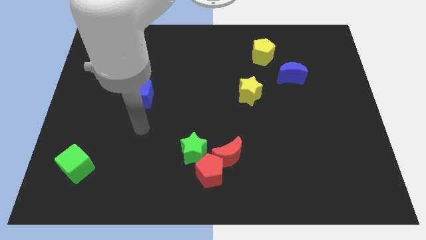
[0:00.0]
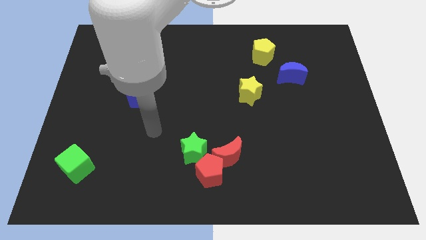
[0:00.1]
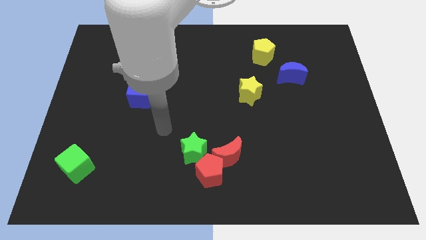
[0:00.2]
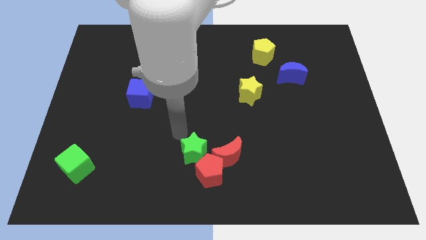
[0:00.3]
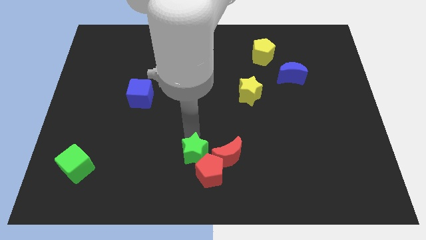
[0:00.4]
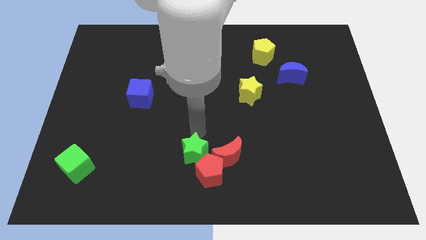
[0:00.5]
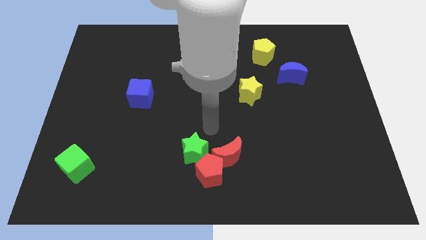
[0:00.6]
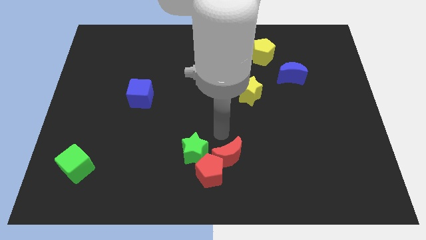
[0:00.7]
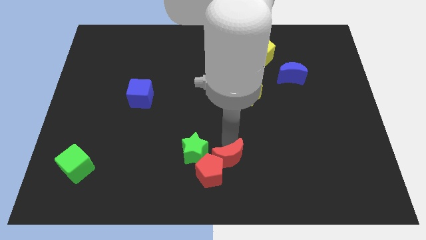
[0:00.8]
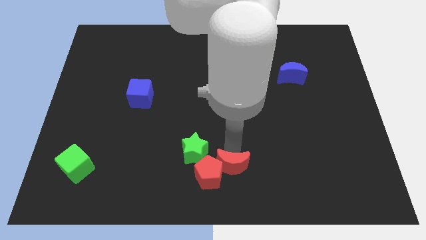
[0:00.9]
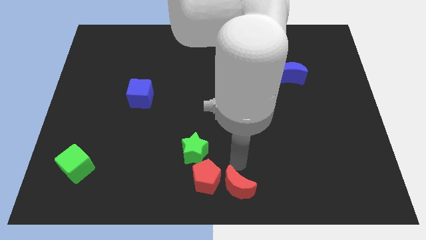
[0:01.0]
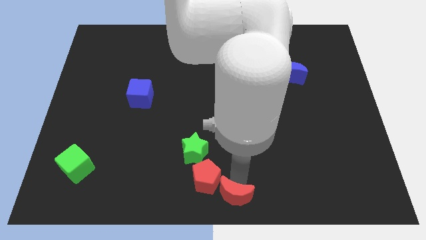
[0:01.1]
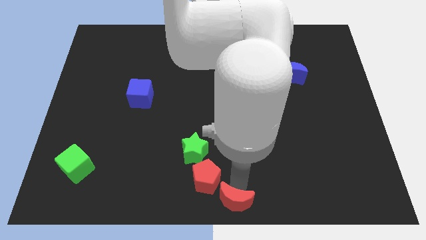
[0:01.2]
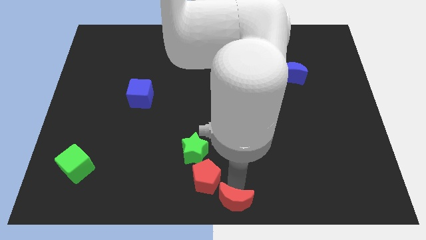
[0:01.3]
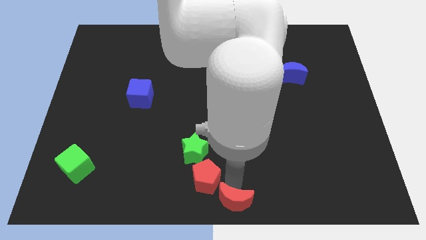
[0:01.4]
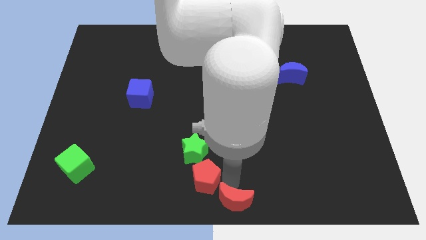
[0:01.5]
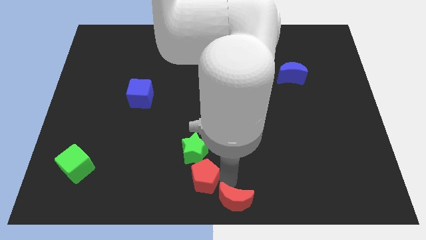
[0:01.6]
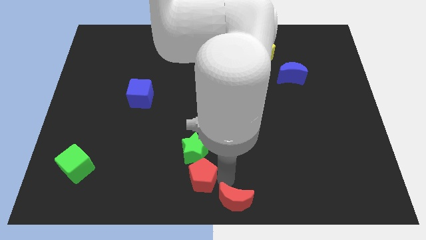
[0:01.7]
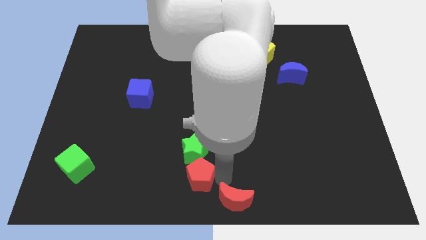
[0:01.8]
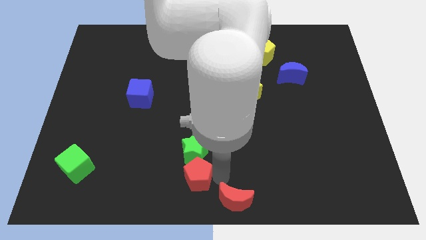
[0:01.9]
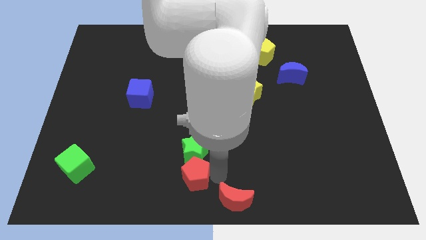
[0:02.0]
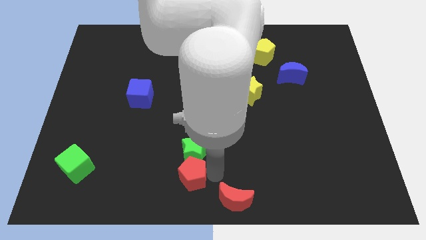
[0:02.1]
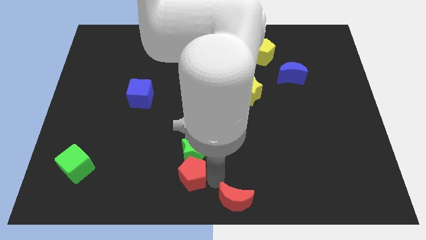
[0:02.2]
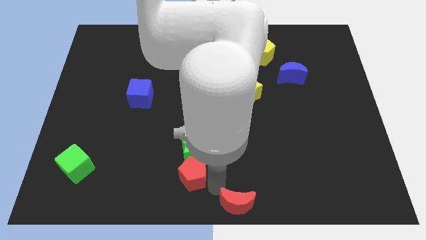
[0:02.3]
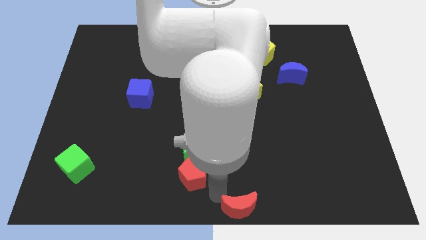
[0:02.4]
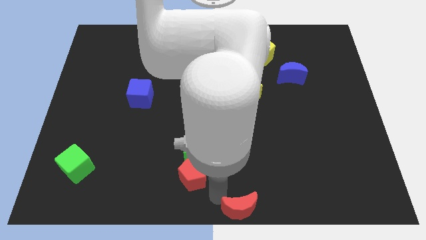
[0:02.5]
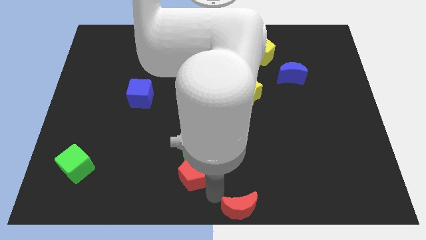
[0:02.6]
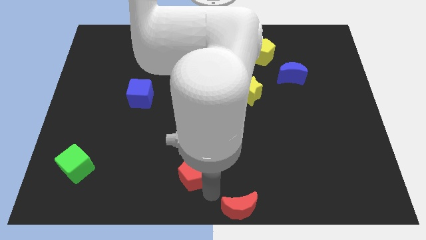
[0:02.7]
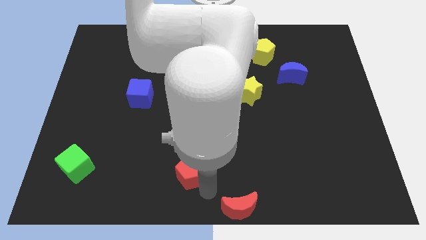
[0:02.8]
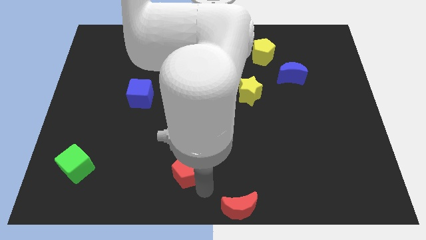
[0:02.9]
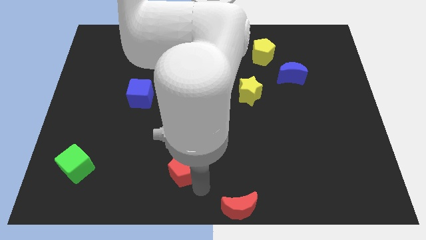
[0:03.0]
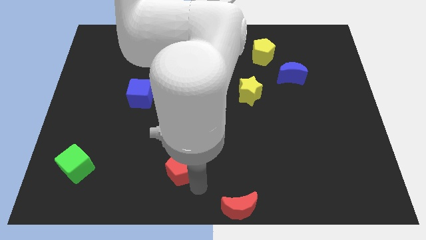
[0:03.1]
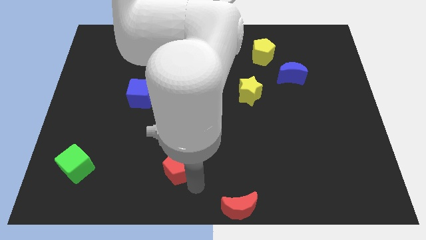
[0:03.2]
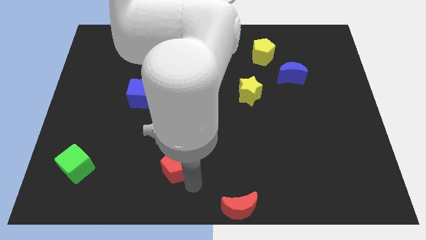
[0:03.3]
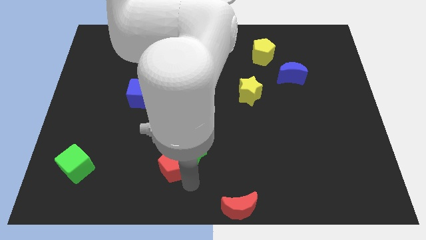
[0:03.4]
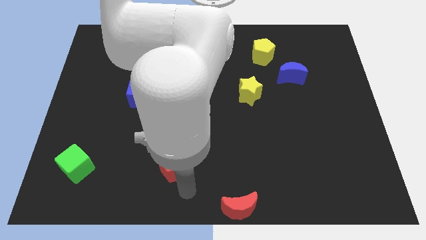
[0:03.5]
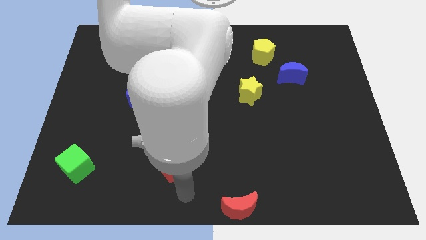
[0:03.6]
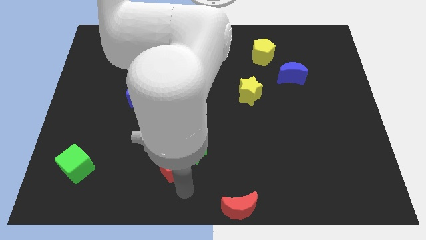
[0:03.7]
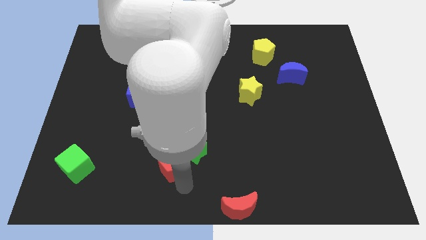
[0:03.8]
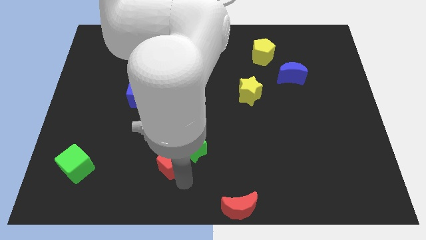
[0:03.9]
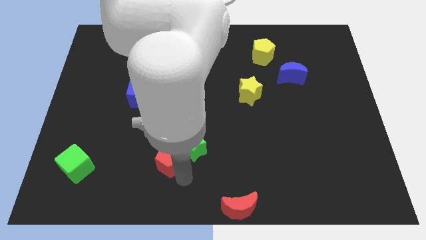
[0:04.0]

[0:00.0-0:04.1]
slide the red pentagon diagonally upwards and to the left somewhat

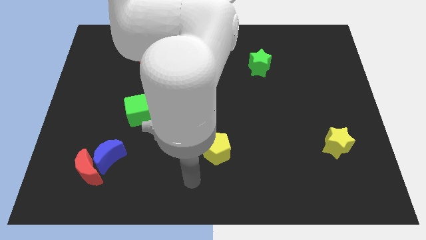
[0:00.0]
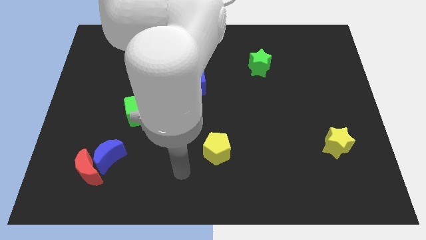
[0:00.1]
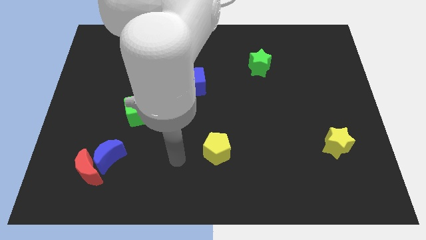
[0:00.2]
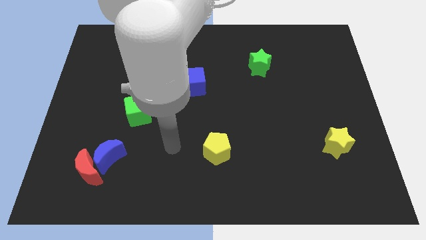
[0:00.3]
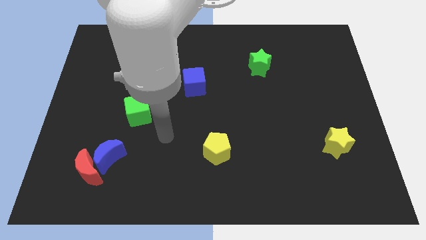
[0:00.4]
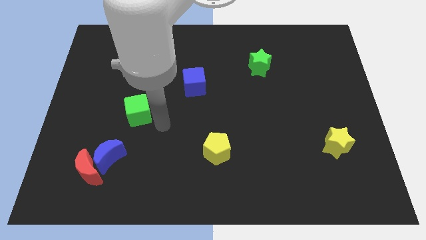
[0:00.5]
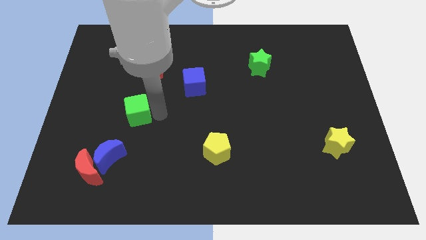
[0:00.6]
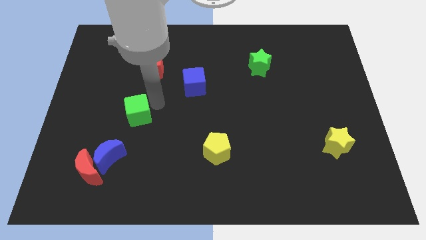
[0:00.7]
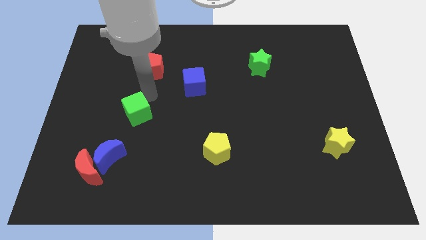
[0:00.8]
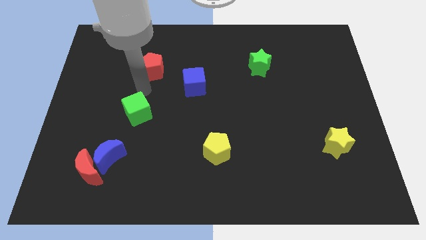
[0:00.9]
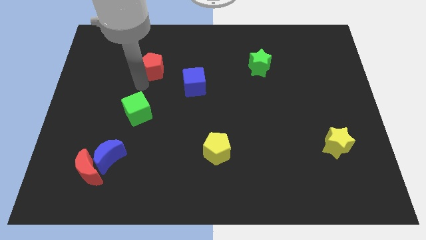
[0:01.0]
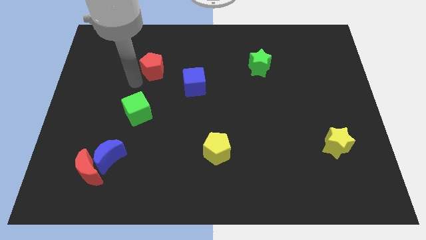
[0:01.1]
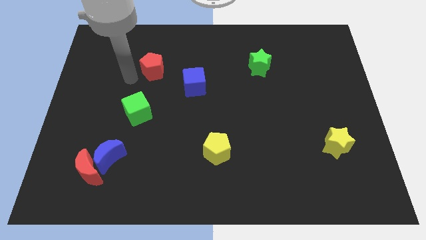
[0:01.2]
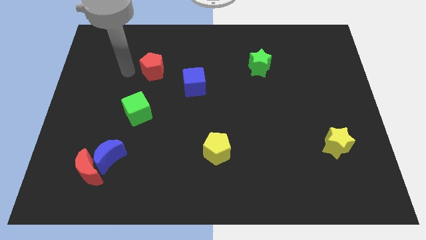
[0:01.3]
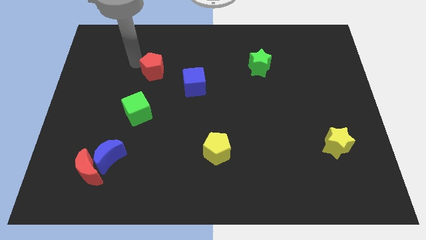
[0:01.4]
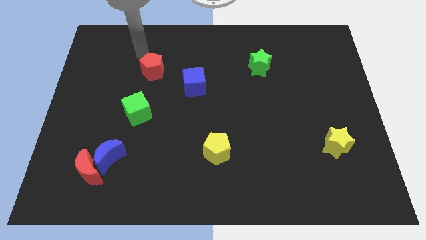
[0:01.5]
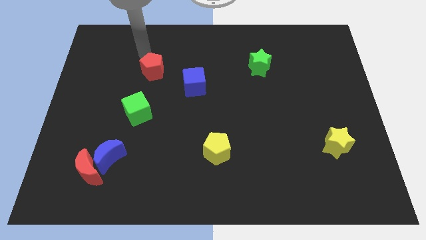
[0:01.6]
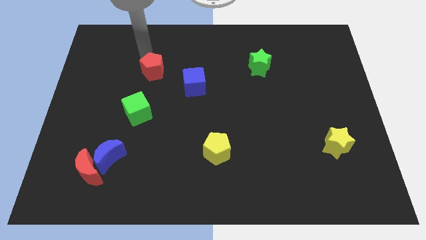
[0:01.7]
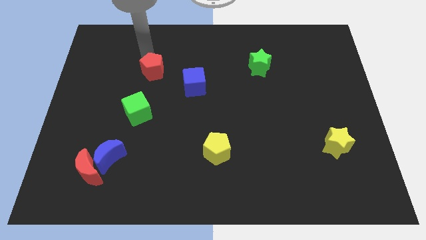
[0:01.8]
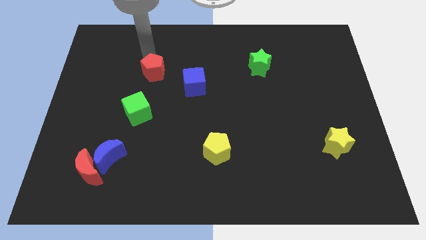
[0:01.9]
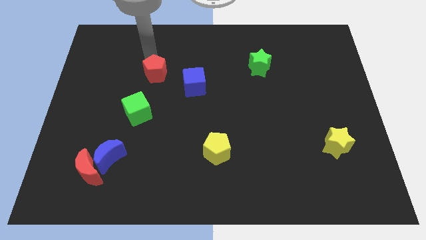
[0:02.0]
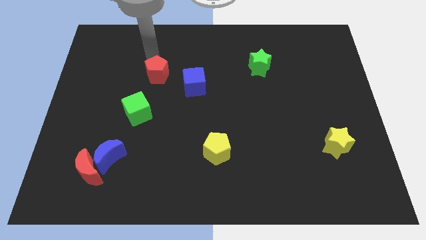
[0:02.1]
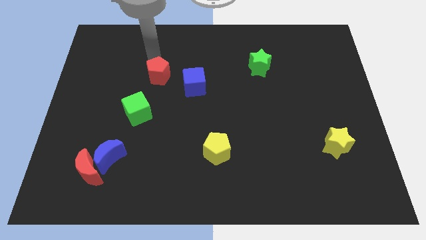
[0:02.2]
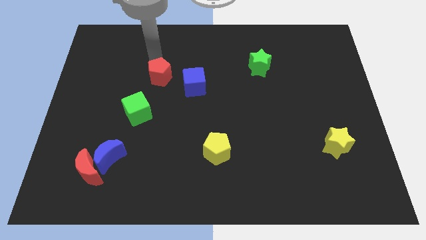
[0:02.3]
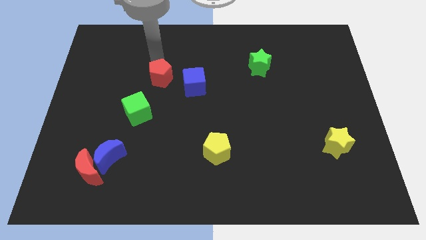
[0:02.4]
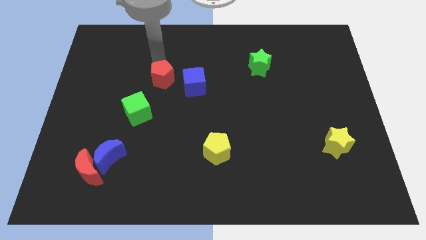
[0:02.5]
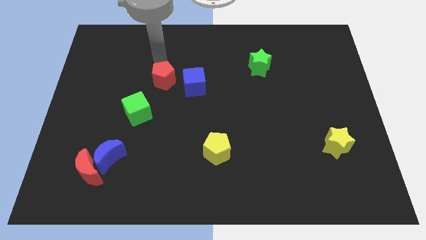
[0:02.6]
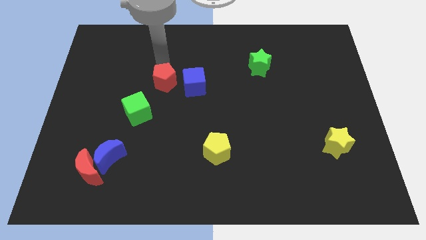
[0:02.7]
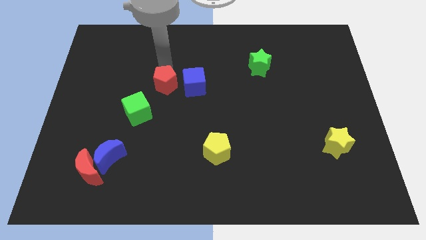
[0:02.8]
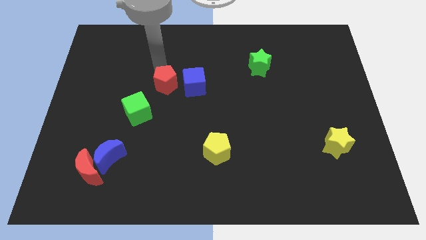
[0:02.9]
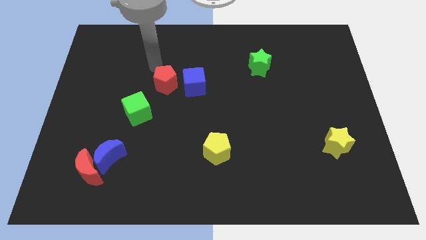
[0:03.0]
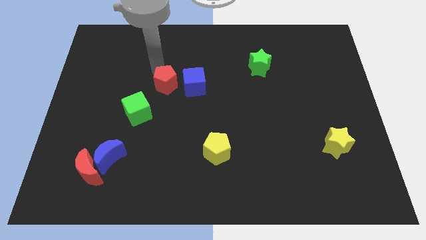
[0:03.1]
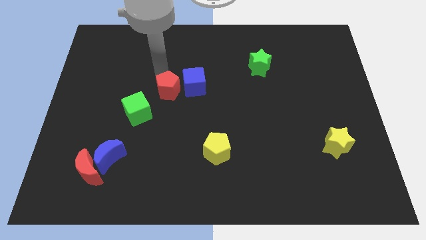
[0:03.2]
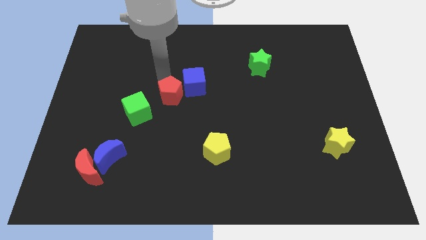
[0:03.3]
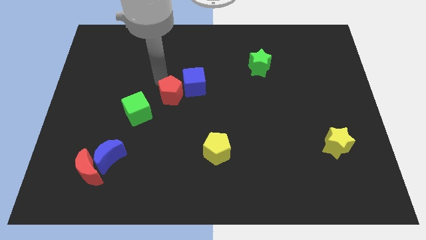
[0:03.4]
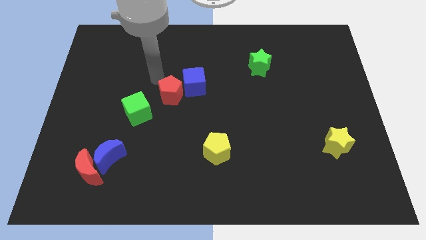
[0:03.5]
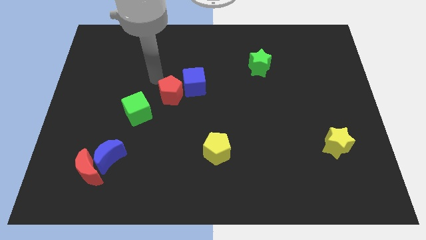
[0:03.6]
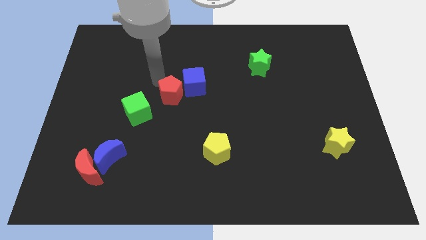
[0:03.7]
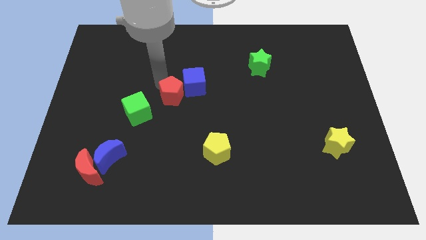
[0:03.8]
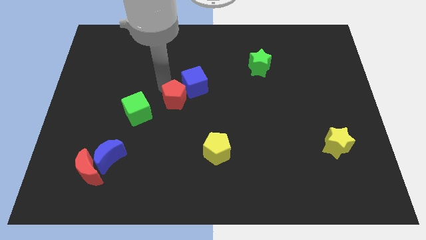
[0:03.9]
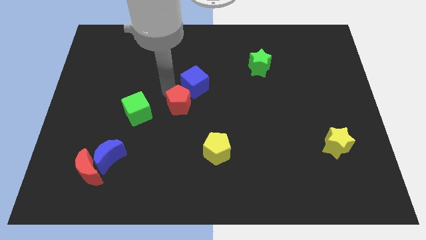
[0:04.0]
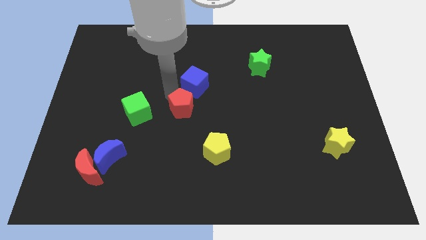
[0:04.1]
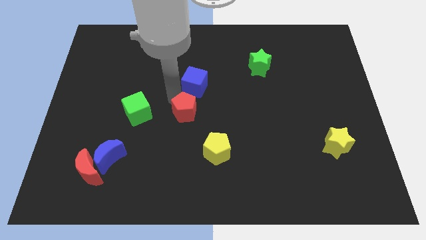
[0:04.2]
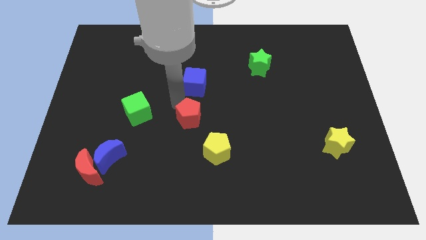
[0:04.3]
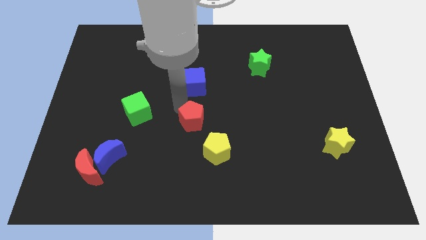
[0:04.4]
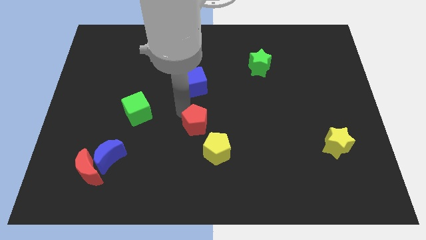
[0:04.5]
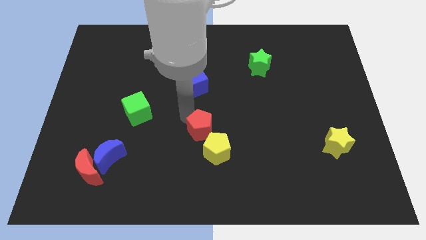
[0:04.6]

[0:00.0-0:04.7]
slide the red pentagon downwards and right
